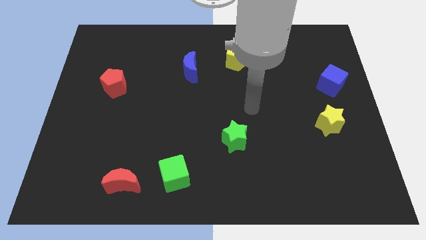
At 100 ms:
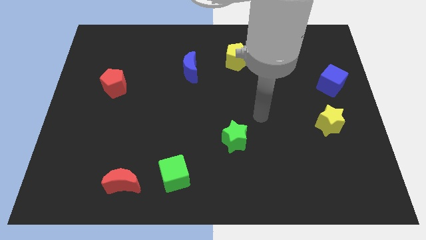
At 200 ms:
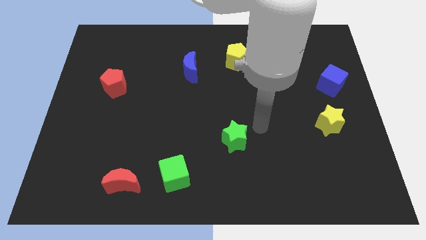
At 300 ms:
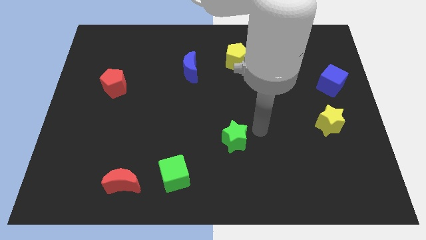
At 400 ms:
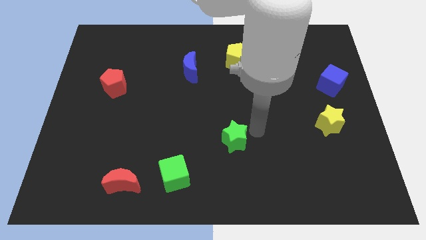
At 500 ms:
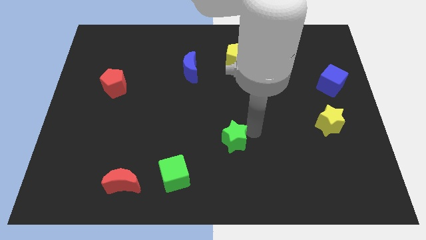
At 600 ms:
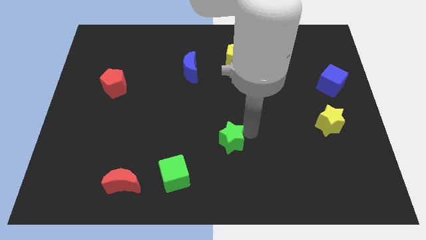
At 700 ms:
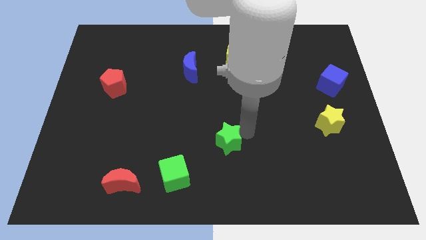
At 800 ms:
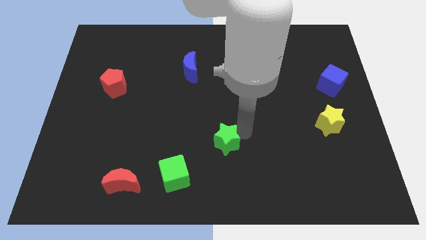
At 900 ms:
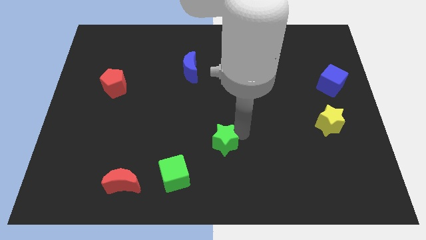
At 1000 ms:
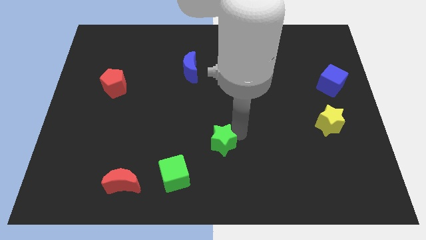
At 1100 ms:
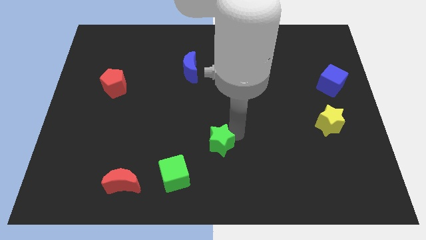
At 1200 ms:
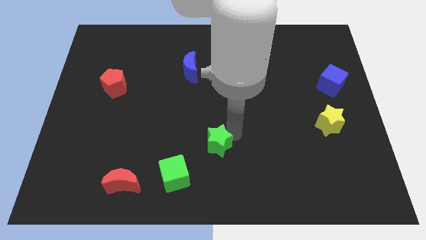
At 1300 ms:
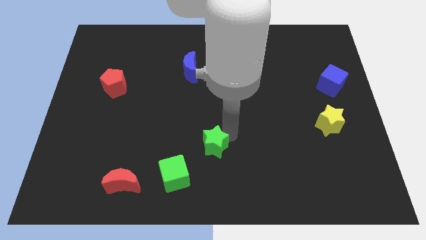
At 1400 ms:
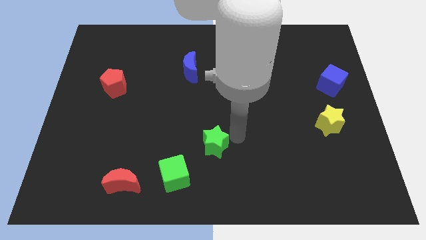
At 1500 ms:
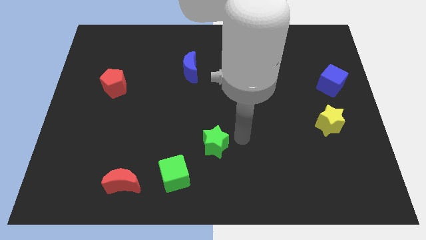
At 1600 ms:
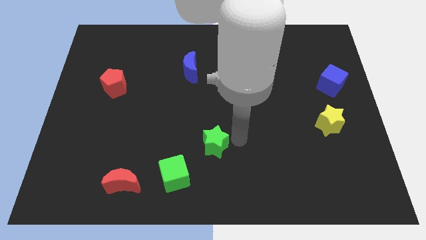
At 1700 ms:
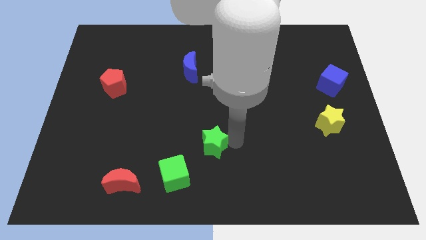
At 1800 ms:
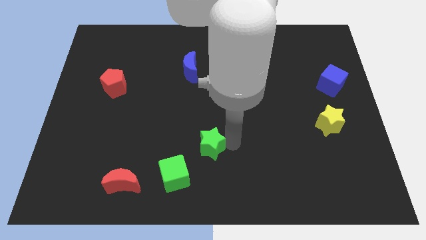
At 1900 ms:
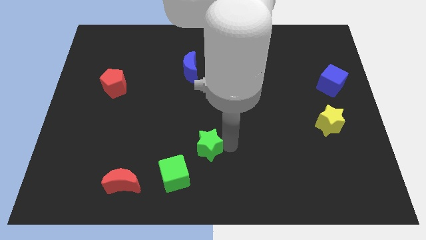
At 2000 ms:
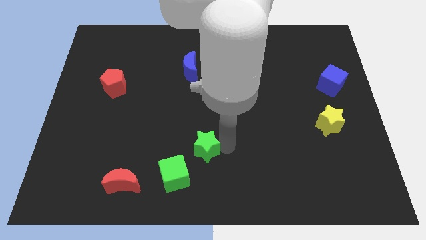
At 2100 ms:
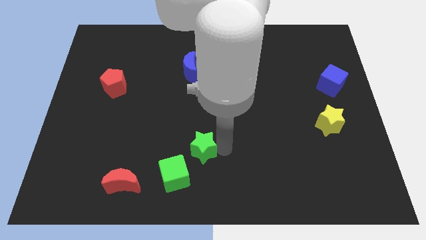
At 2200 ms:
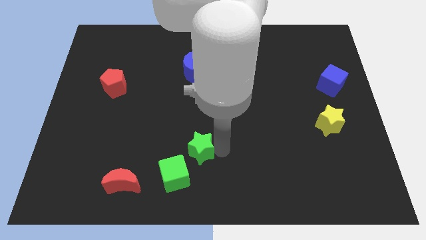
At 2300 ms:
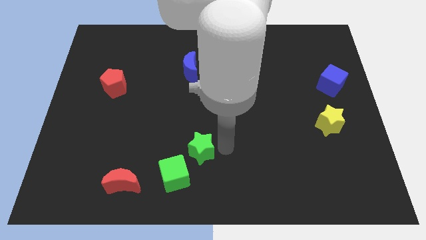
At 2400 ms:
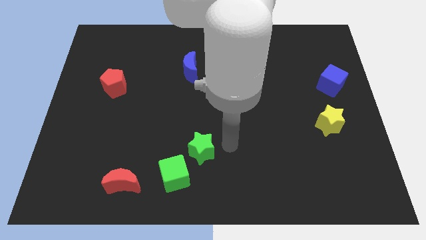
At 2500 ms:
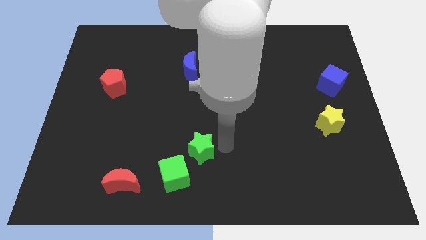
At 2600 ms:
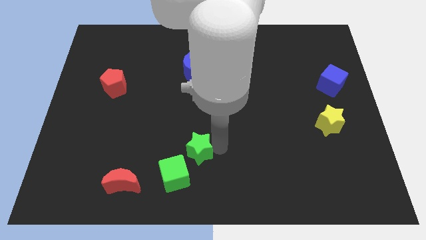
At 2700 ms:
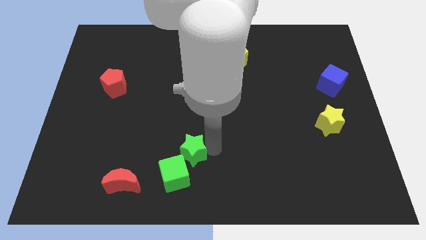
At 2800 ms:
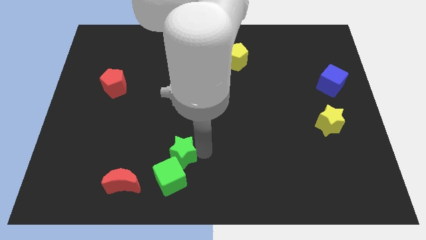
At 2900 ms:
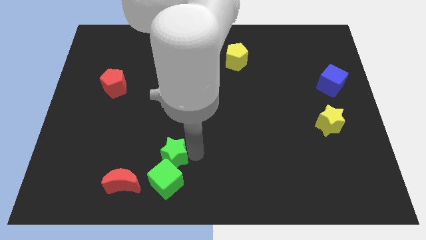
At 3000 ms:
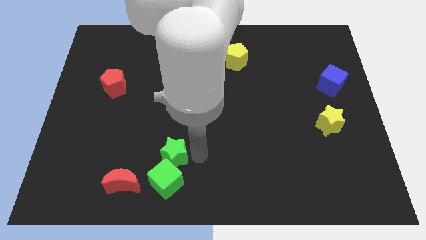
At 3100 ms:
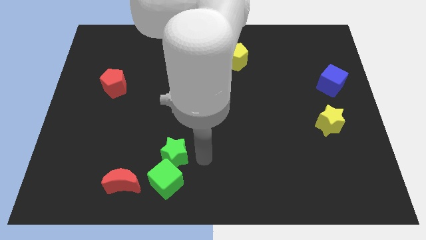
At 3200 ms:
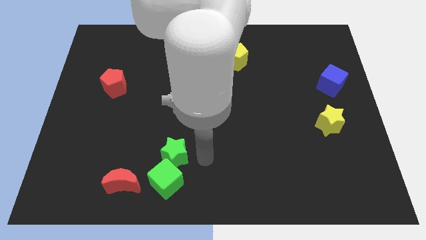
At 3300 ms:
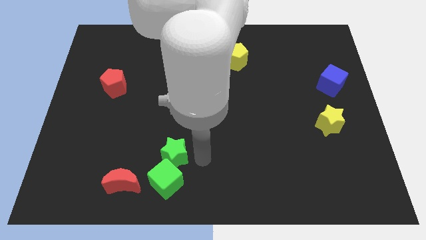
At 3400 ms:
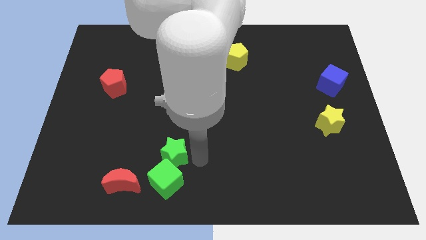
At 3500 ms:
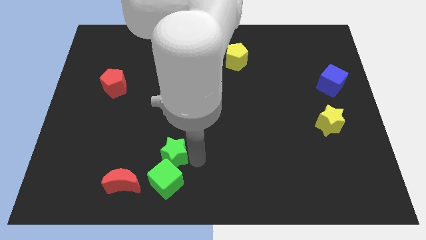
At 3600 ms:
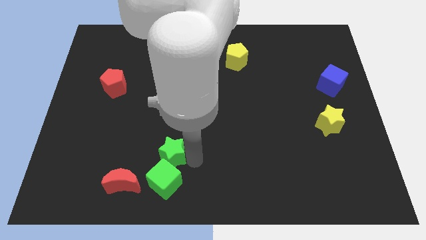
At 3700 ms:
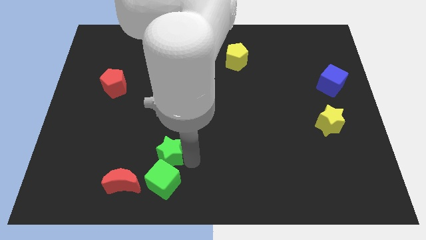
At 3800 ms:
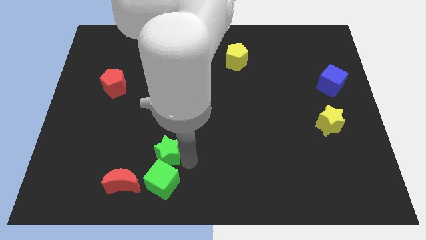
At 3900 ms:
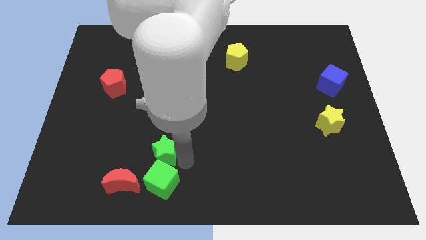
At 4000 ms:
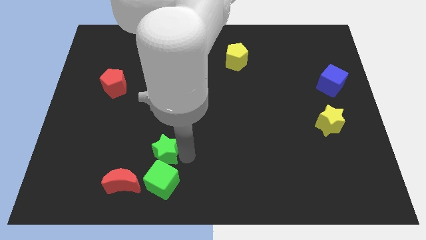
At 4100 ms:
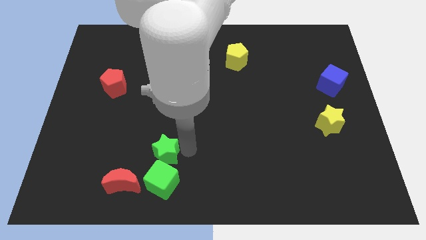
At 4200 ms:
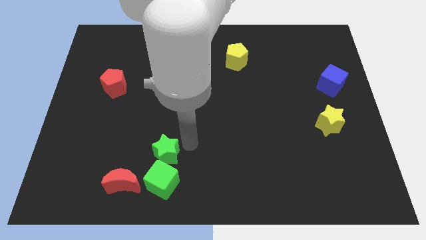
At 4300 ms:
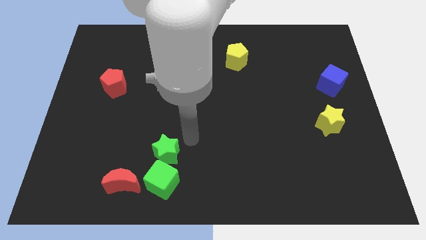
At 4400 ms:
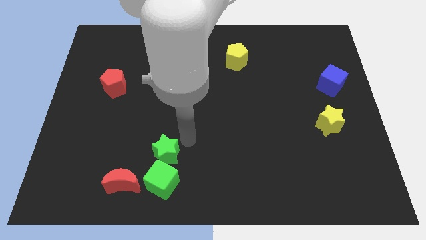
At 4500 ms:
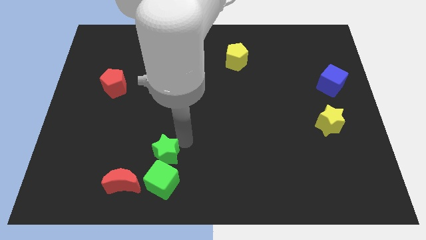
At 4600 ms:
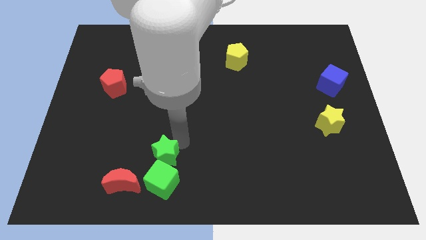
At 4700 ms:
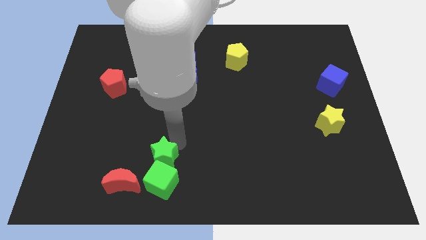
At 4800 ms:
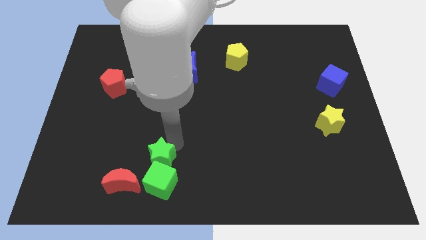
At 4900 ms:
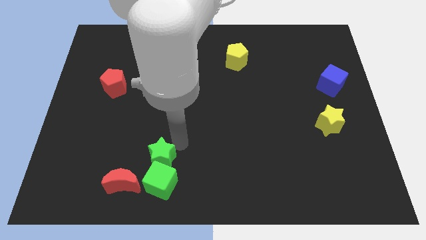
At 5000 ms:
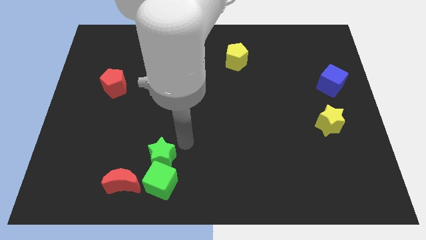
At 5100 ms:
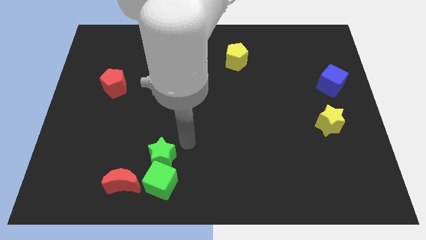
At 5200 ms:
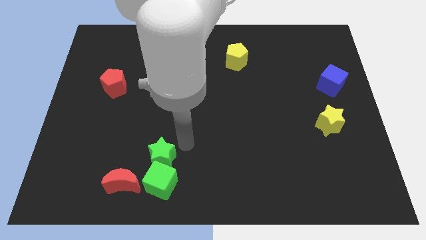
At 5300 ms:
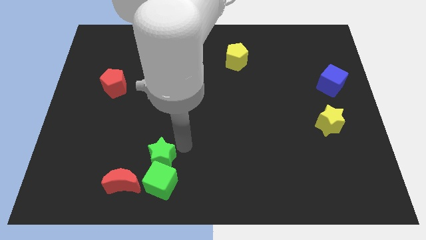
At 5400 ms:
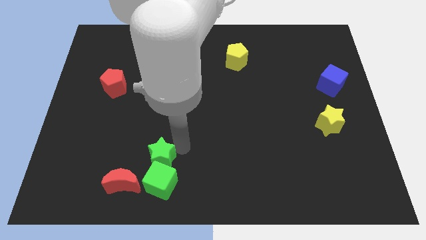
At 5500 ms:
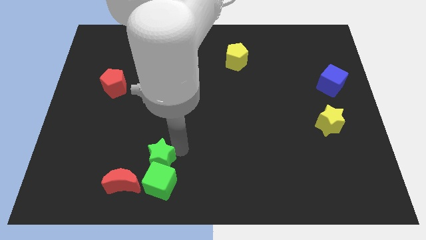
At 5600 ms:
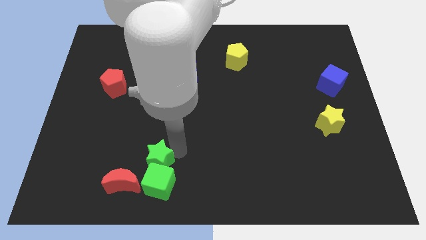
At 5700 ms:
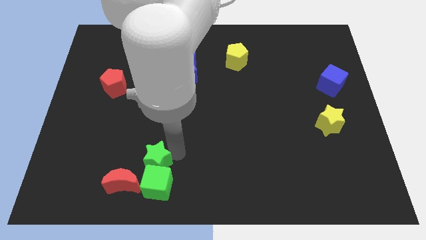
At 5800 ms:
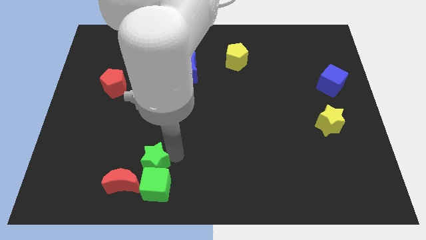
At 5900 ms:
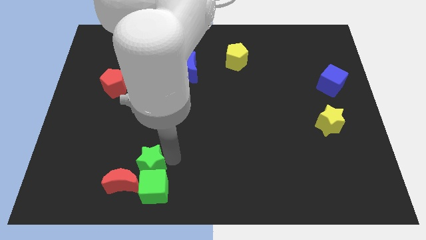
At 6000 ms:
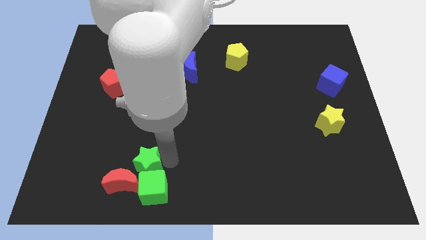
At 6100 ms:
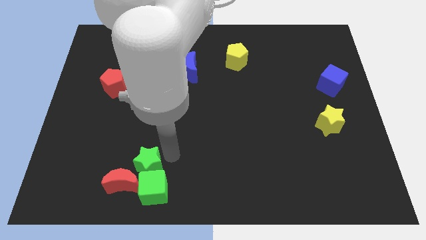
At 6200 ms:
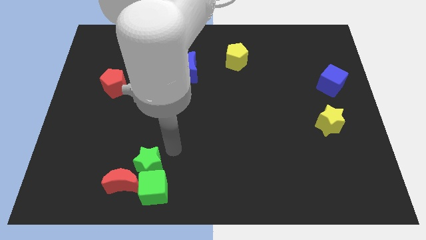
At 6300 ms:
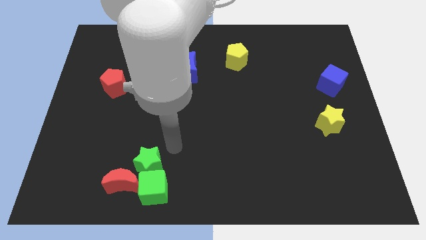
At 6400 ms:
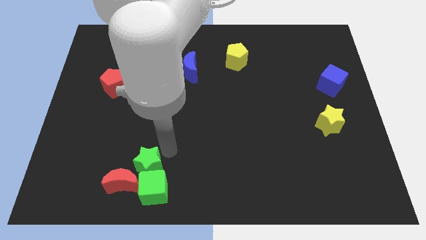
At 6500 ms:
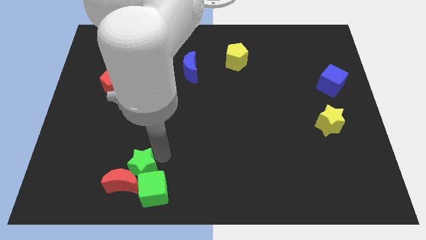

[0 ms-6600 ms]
move the green star to the red moon
